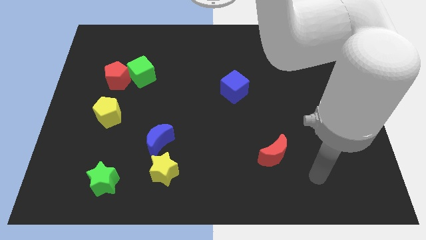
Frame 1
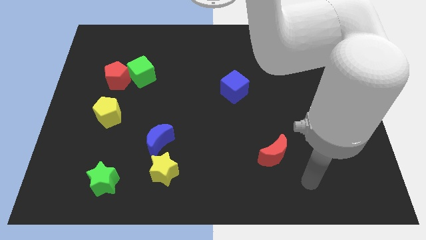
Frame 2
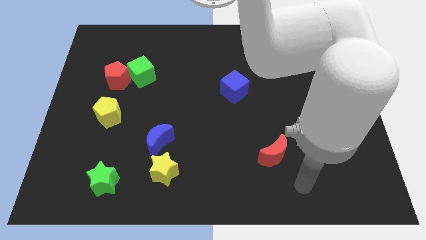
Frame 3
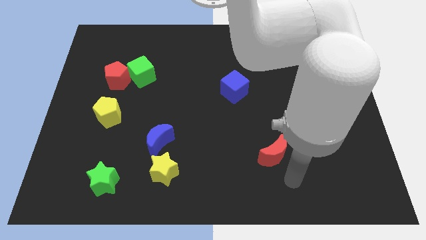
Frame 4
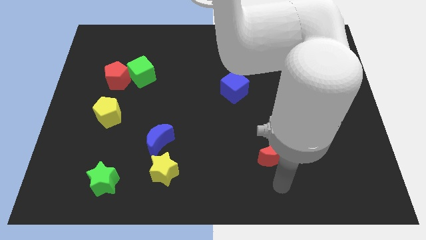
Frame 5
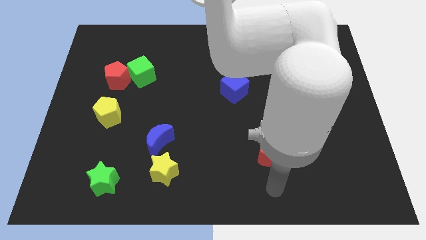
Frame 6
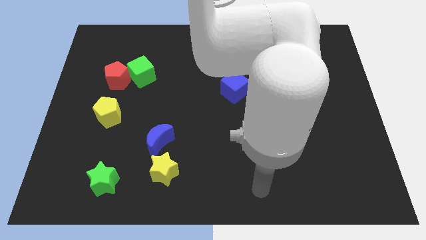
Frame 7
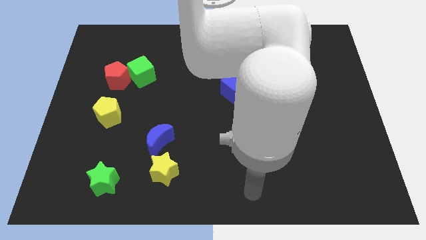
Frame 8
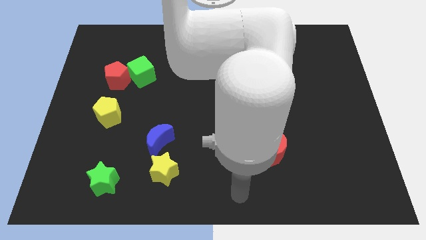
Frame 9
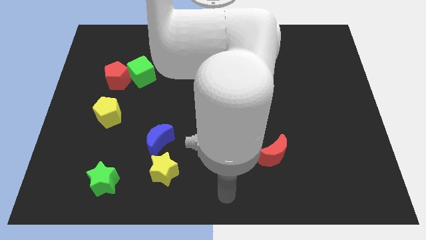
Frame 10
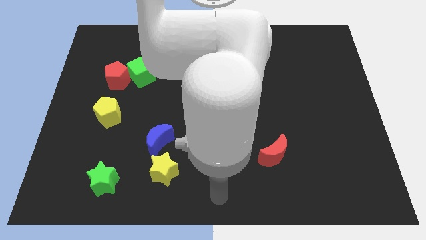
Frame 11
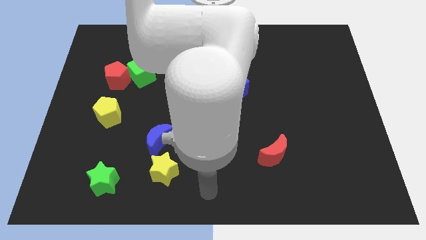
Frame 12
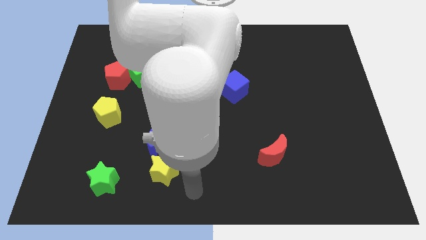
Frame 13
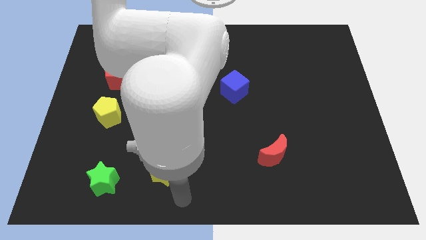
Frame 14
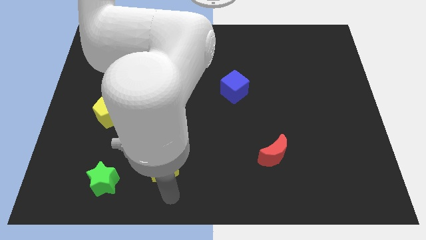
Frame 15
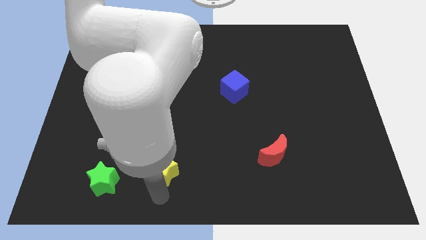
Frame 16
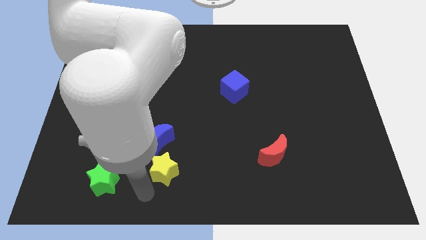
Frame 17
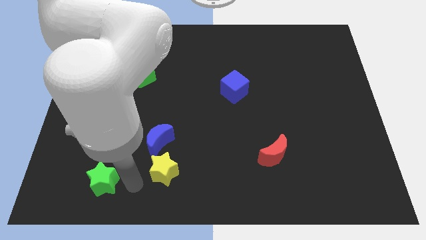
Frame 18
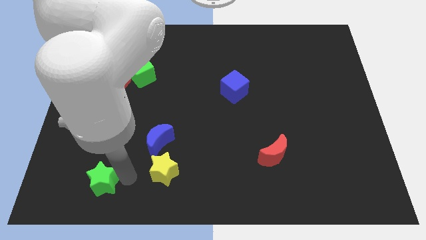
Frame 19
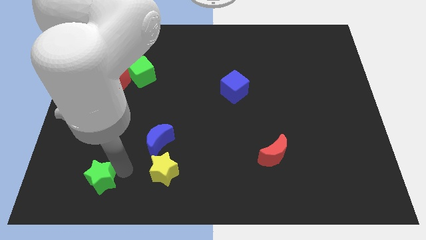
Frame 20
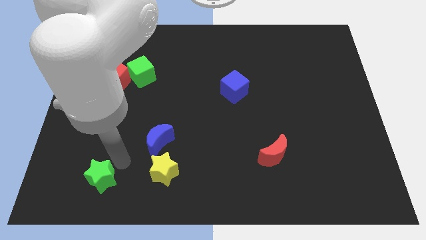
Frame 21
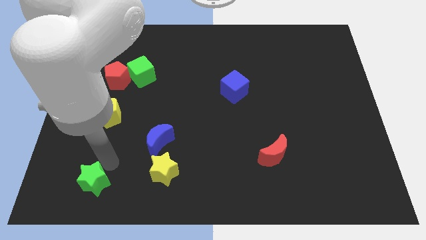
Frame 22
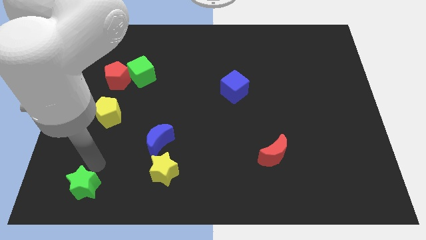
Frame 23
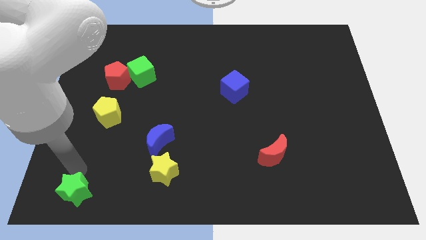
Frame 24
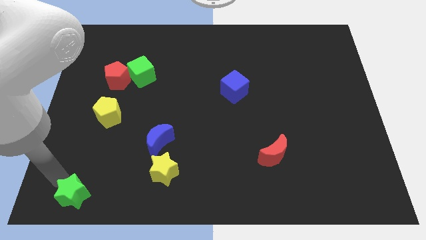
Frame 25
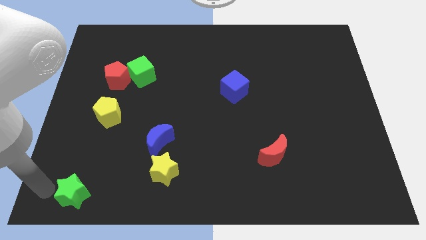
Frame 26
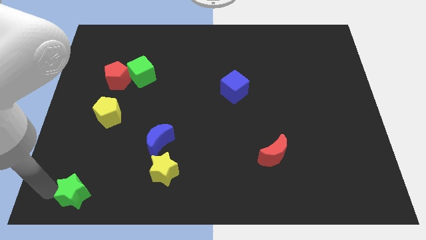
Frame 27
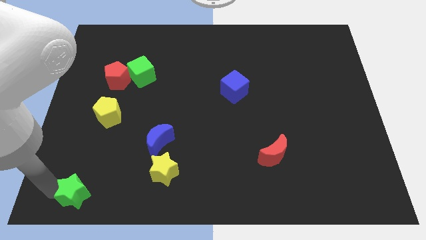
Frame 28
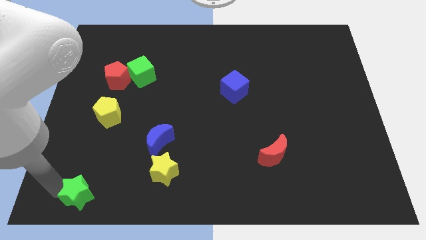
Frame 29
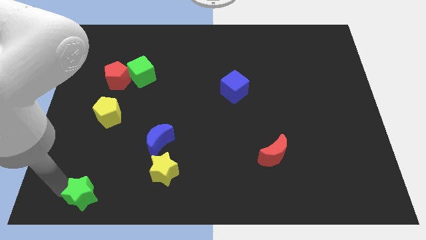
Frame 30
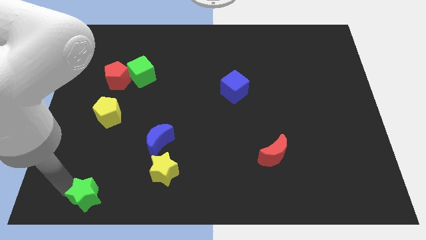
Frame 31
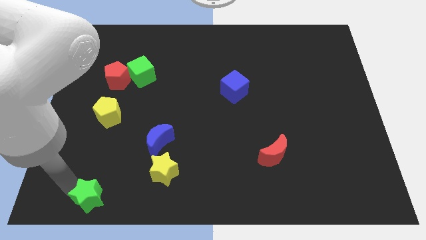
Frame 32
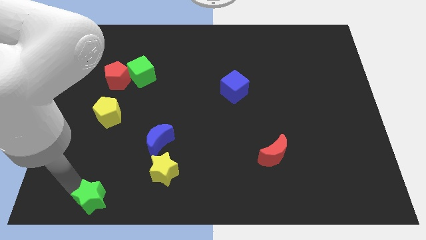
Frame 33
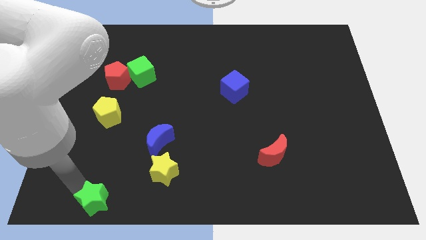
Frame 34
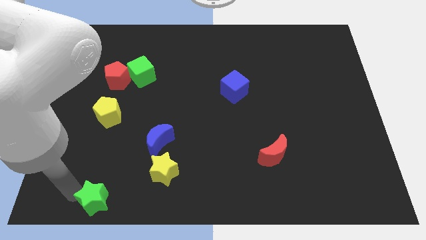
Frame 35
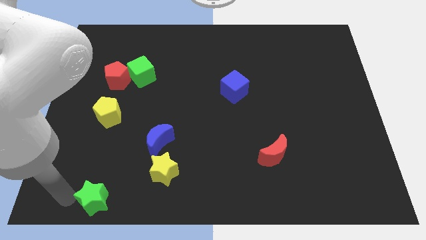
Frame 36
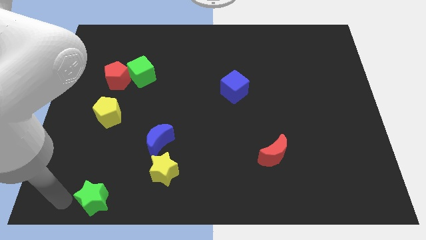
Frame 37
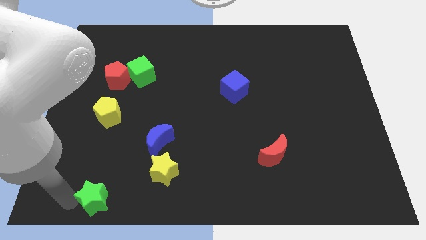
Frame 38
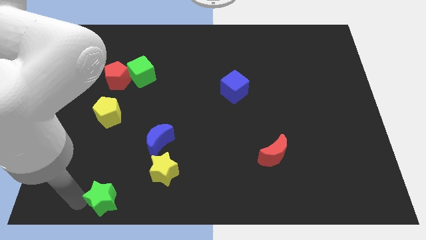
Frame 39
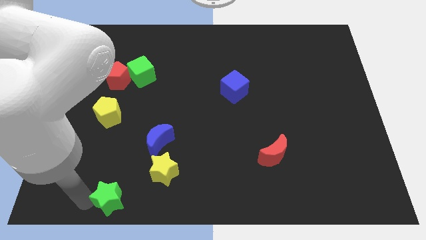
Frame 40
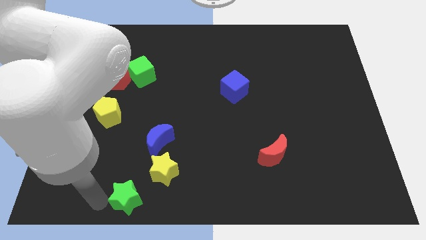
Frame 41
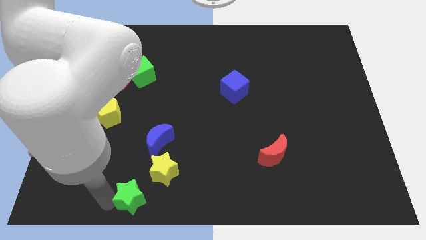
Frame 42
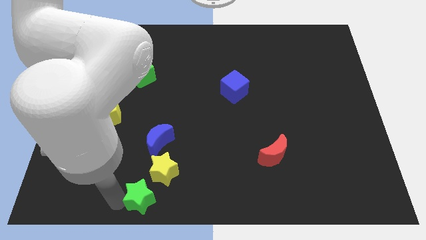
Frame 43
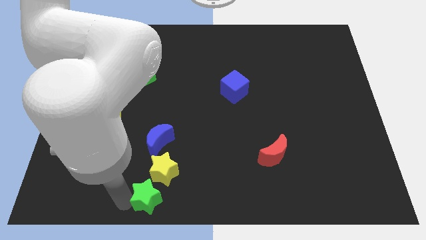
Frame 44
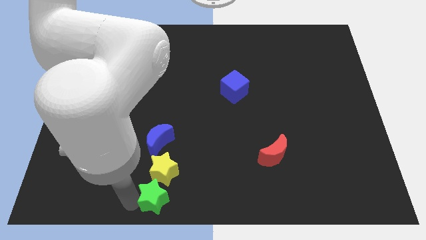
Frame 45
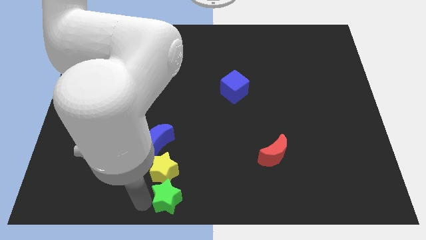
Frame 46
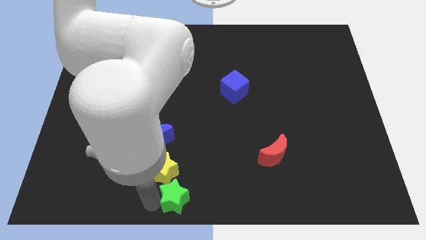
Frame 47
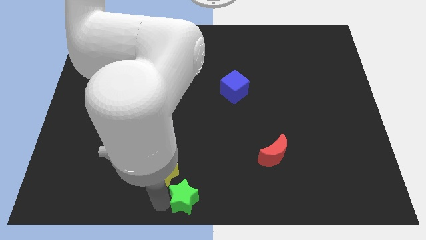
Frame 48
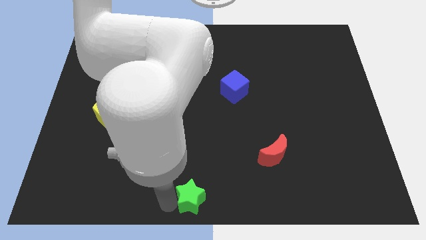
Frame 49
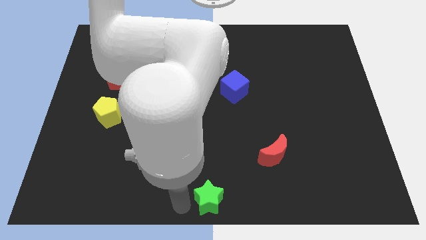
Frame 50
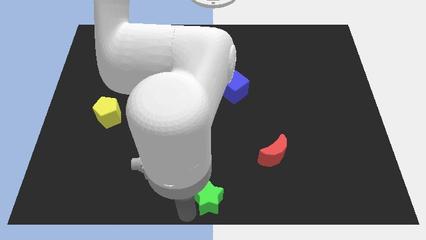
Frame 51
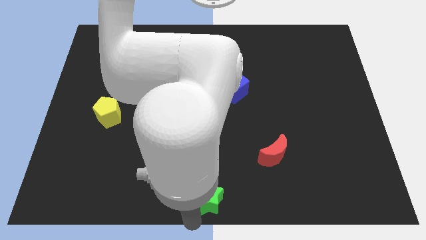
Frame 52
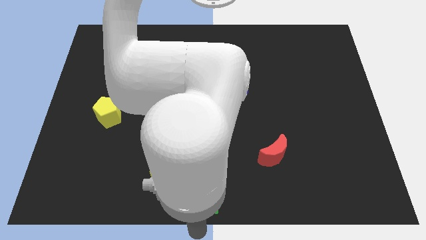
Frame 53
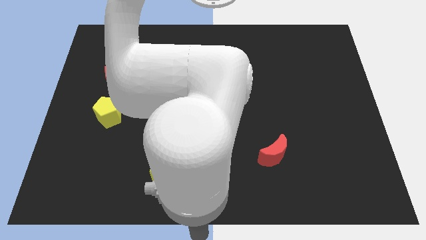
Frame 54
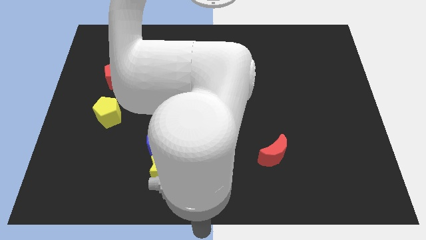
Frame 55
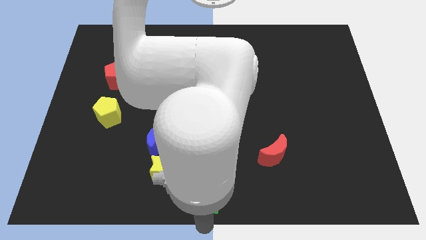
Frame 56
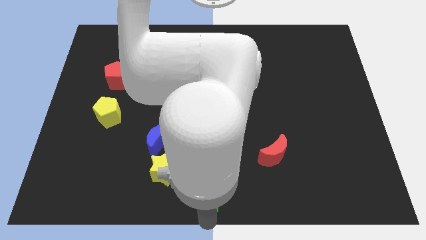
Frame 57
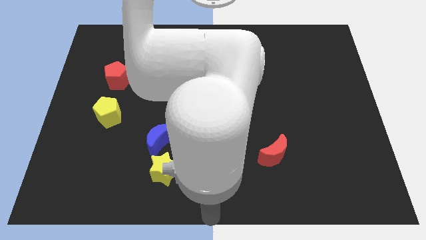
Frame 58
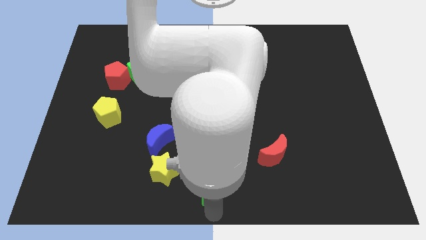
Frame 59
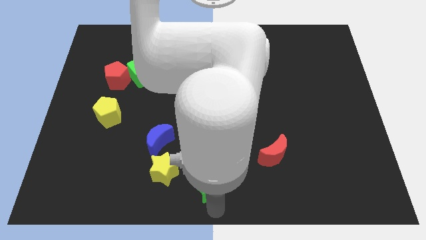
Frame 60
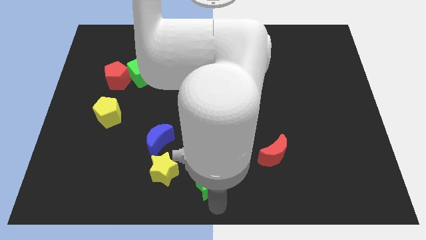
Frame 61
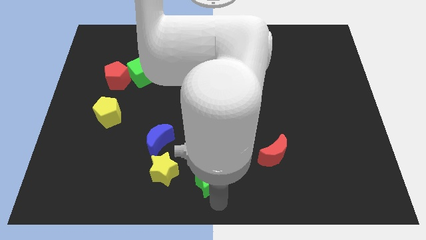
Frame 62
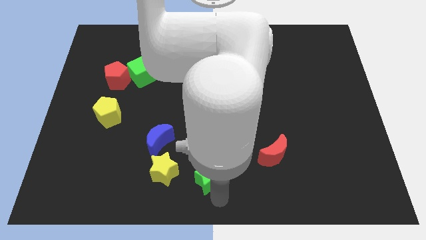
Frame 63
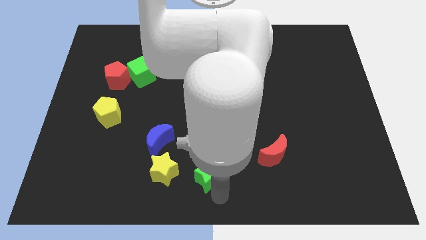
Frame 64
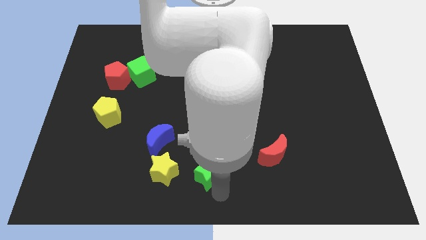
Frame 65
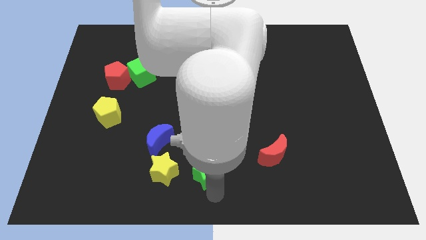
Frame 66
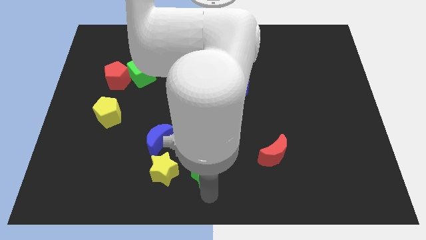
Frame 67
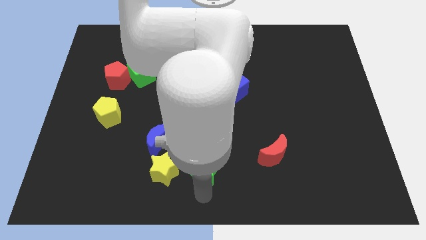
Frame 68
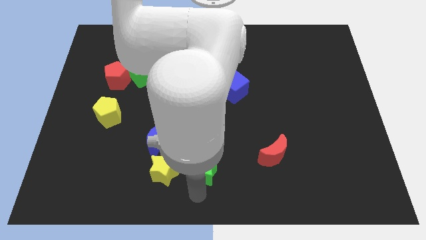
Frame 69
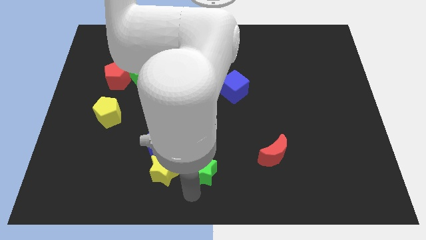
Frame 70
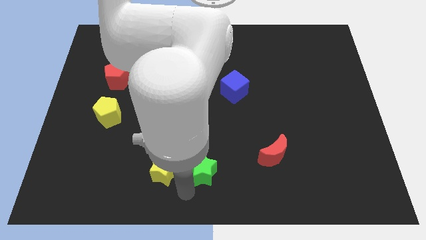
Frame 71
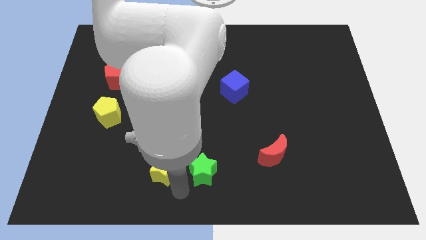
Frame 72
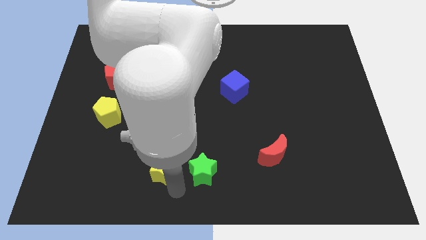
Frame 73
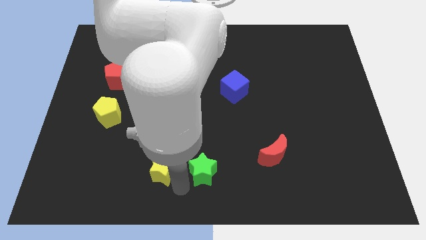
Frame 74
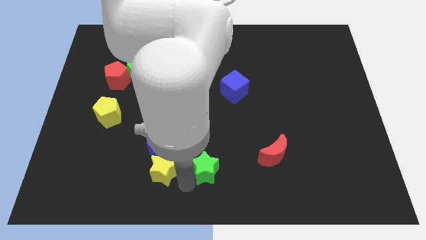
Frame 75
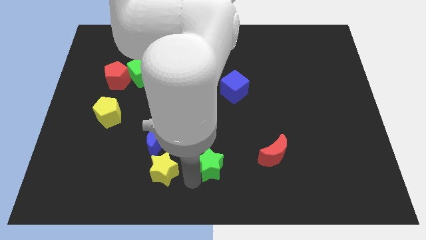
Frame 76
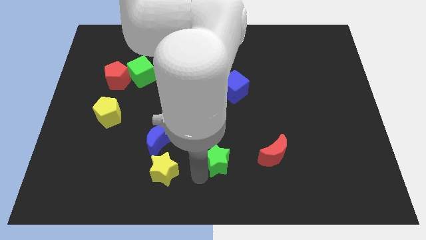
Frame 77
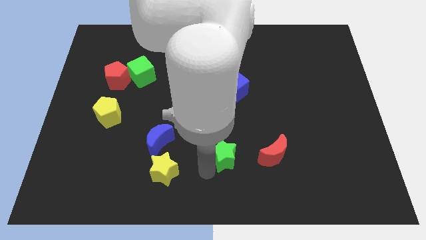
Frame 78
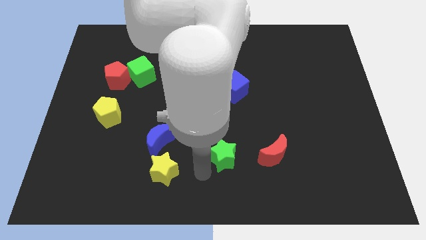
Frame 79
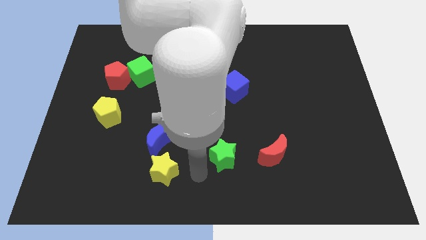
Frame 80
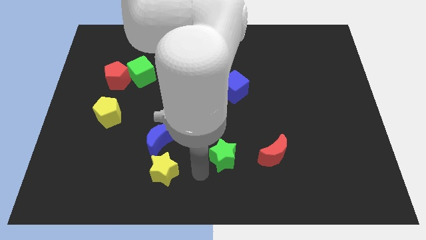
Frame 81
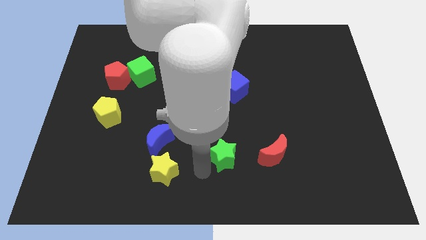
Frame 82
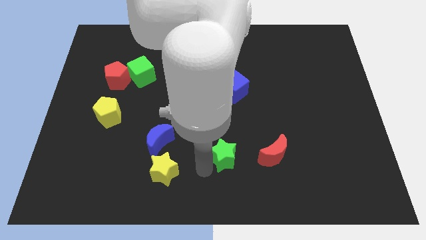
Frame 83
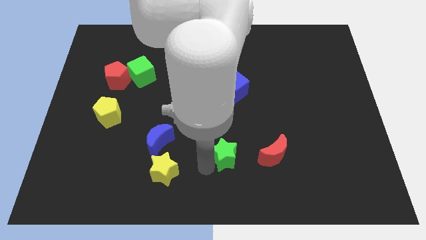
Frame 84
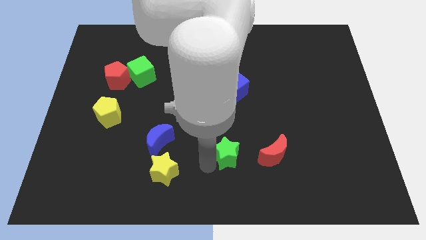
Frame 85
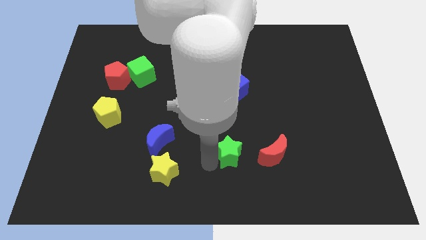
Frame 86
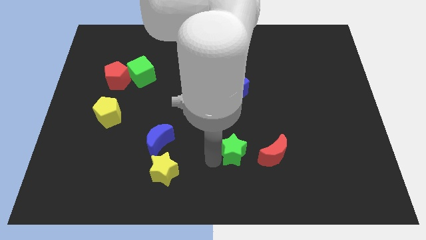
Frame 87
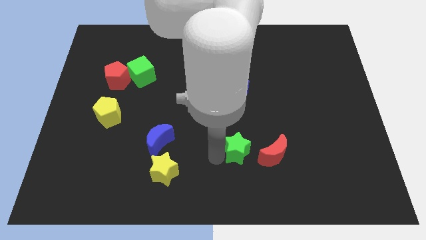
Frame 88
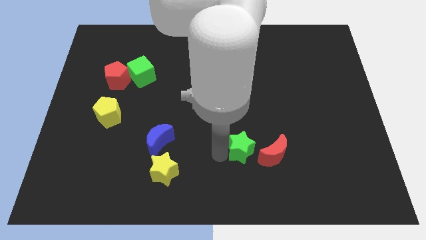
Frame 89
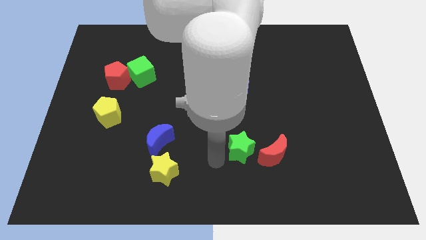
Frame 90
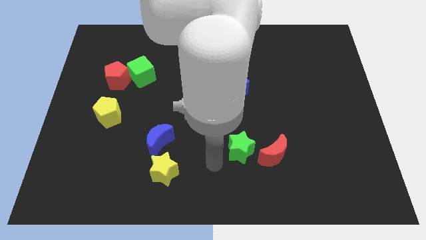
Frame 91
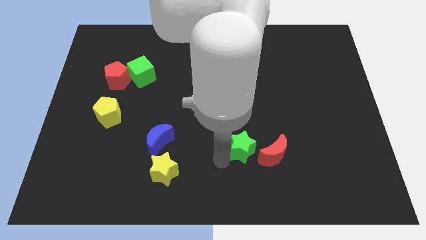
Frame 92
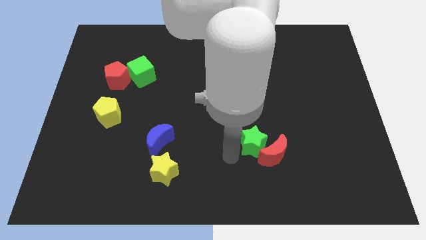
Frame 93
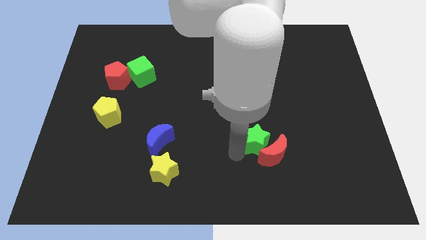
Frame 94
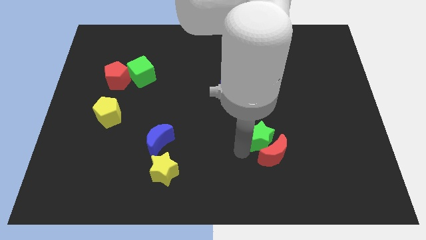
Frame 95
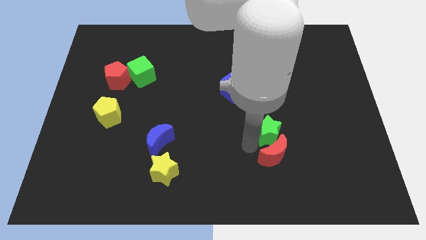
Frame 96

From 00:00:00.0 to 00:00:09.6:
slide the green star to the top right side of the red moon
